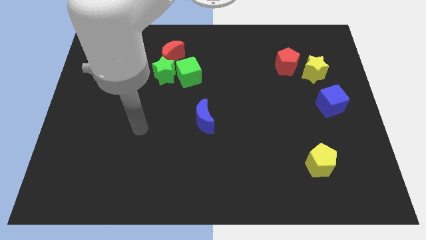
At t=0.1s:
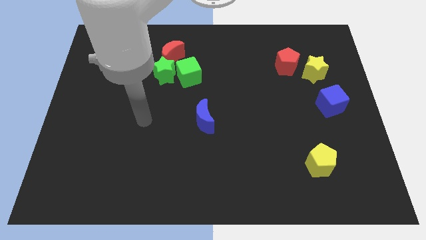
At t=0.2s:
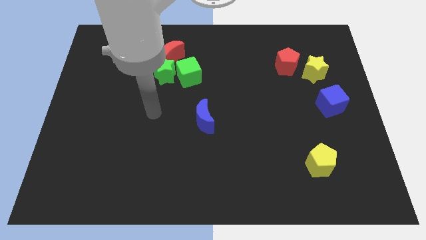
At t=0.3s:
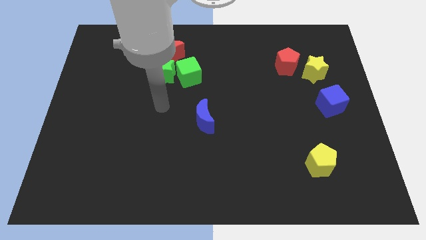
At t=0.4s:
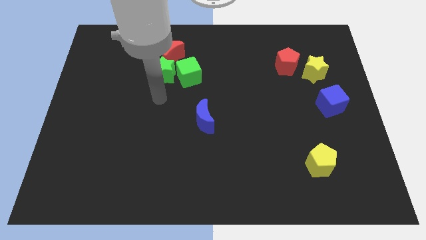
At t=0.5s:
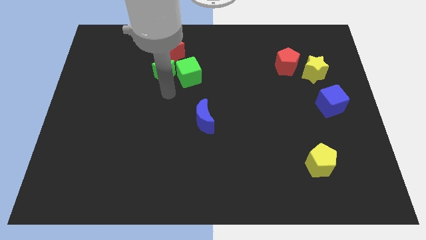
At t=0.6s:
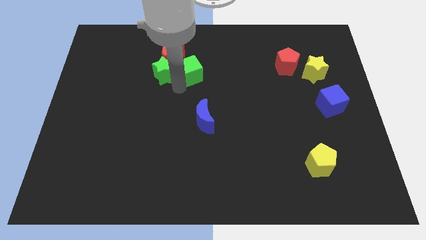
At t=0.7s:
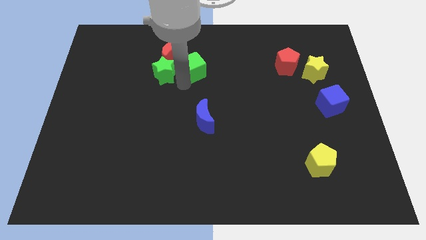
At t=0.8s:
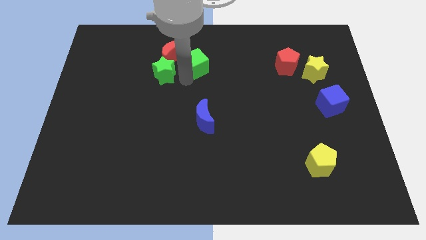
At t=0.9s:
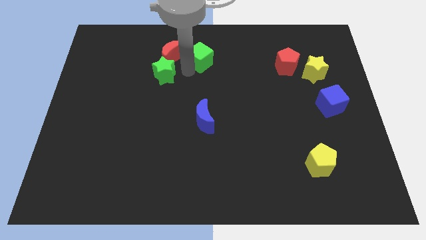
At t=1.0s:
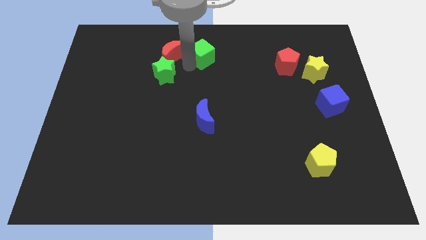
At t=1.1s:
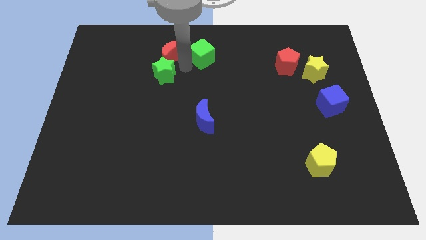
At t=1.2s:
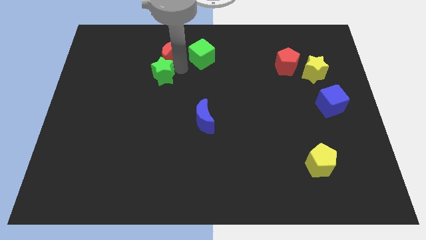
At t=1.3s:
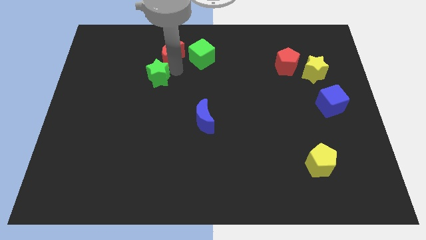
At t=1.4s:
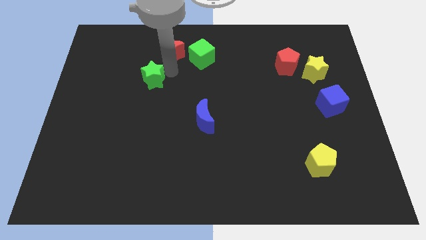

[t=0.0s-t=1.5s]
separate the green star from the green cube and red moon

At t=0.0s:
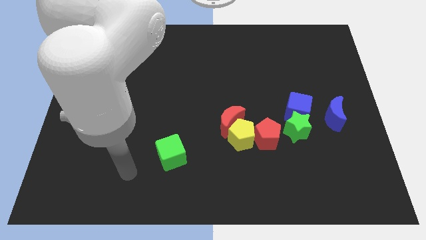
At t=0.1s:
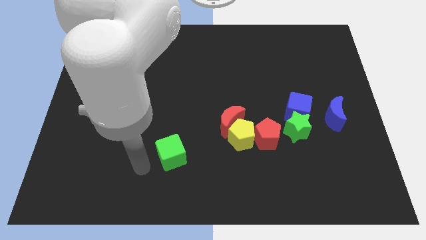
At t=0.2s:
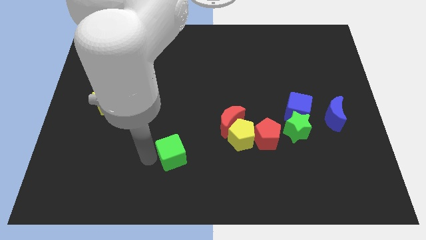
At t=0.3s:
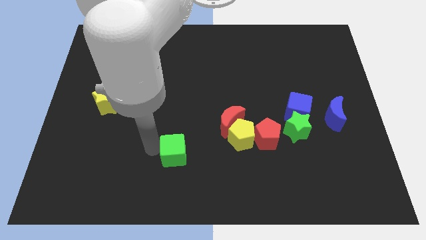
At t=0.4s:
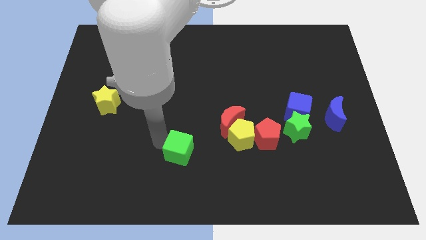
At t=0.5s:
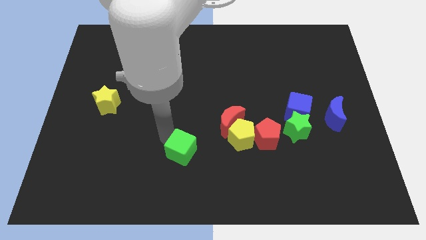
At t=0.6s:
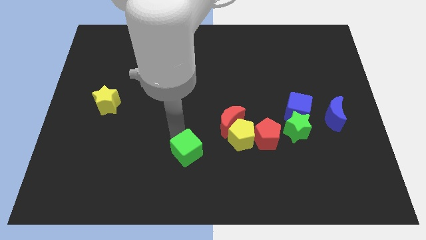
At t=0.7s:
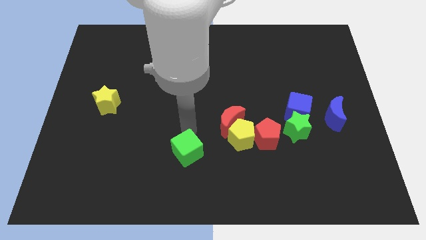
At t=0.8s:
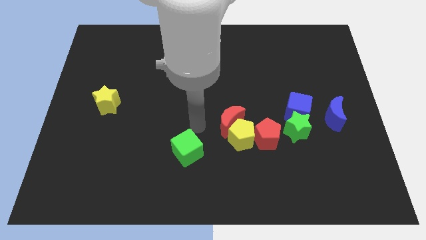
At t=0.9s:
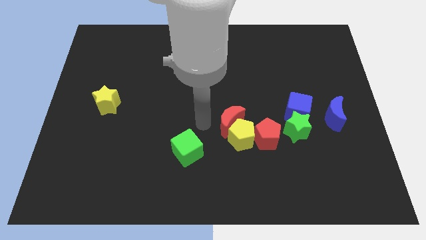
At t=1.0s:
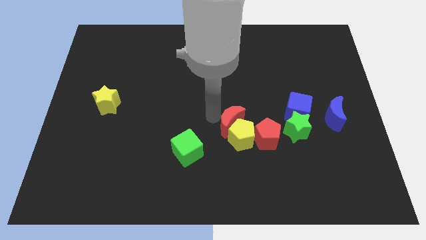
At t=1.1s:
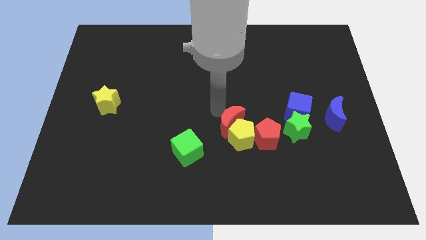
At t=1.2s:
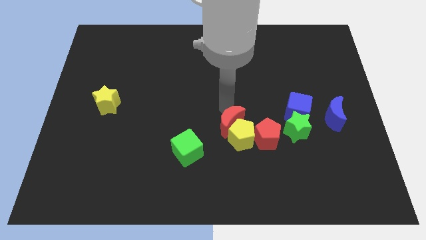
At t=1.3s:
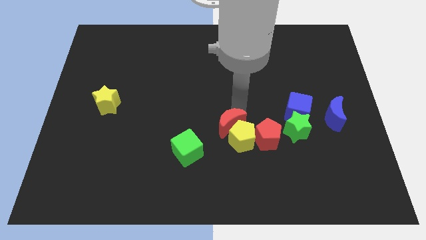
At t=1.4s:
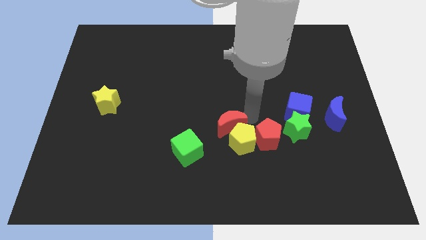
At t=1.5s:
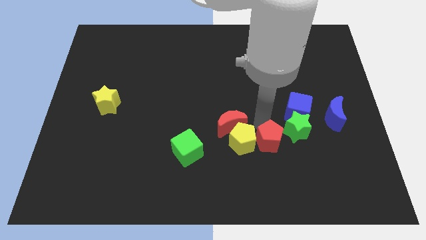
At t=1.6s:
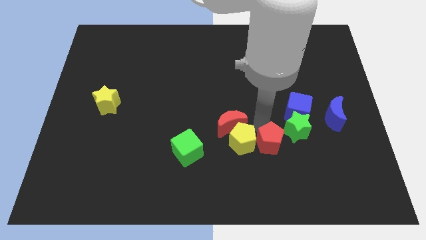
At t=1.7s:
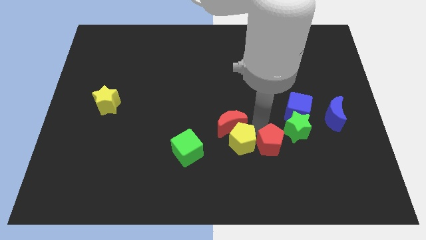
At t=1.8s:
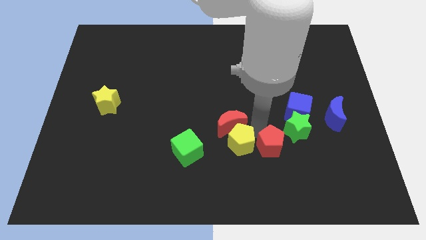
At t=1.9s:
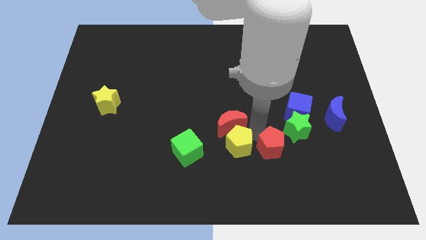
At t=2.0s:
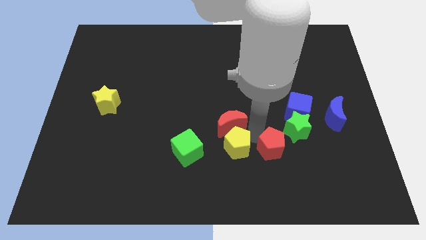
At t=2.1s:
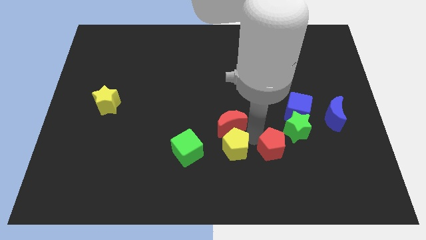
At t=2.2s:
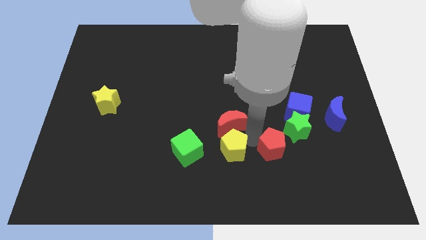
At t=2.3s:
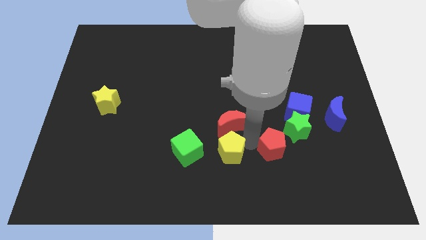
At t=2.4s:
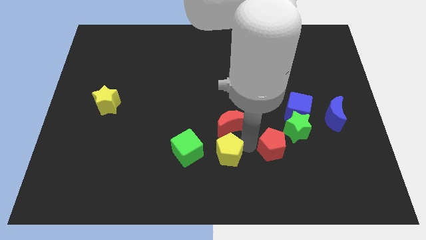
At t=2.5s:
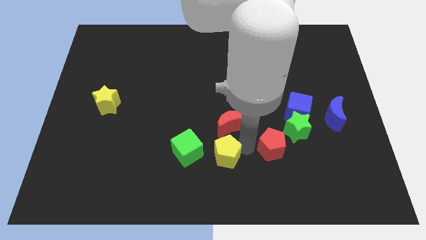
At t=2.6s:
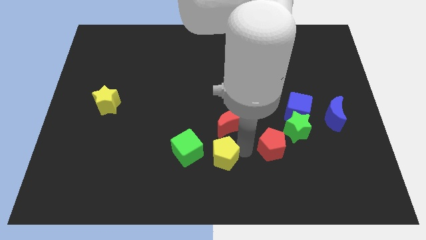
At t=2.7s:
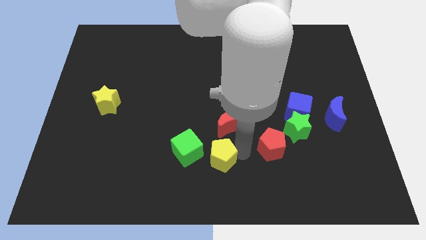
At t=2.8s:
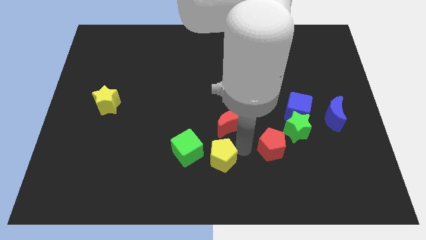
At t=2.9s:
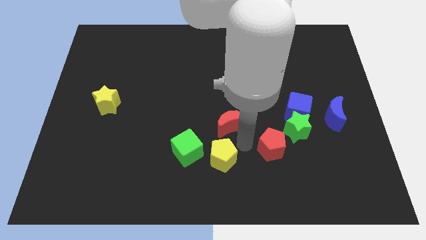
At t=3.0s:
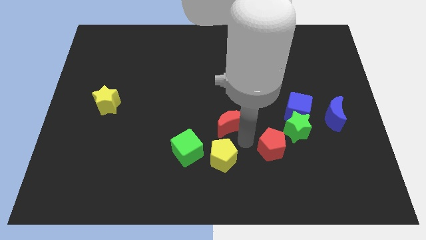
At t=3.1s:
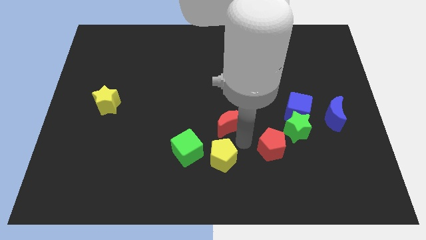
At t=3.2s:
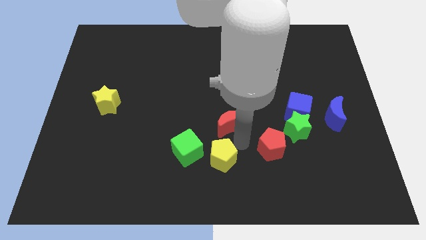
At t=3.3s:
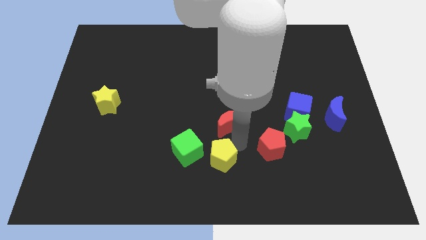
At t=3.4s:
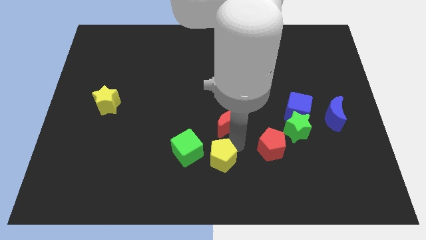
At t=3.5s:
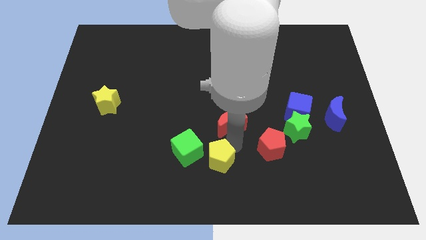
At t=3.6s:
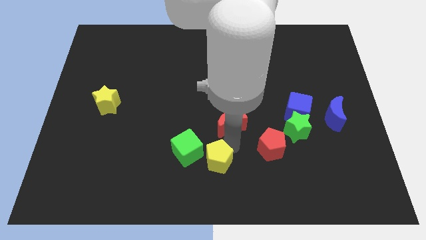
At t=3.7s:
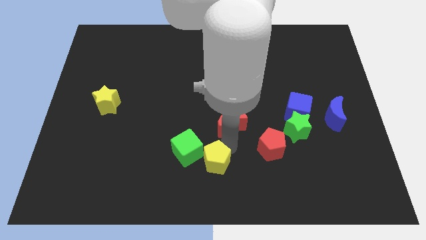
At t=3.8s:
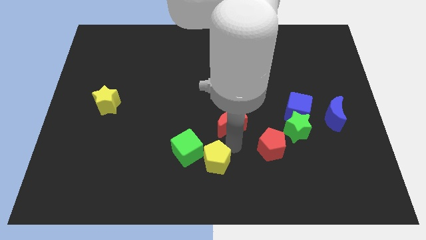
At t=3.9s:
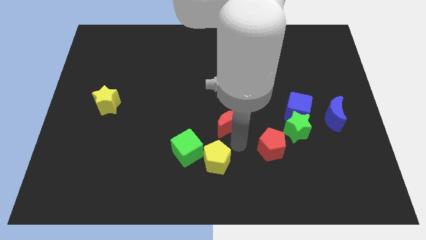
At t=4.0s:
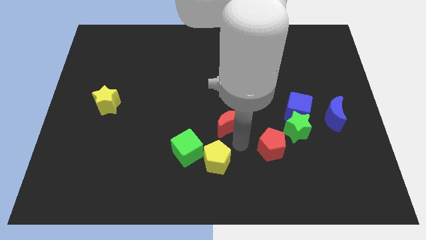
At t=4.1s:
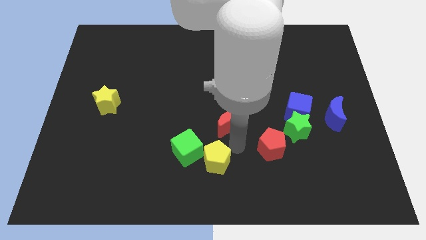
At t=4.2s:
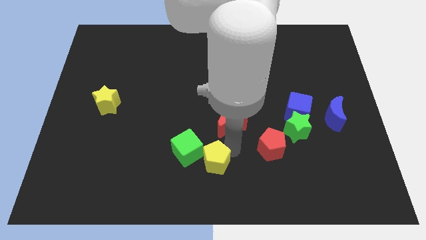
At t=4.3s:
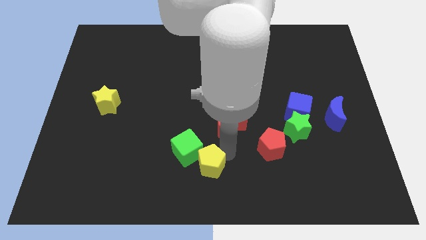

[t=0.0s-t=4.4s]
separate the yellow pentagon from the red moon and red pentagon

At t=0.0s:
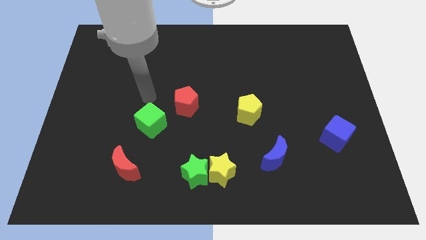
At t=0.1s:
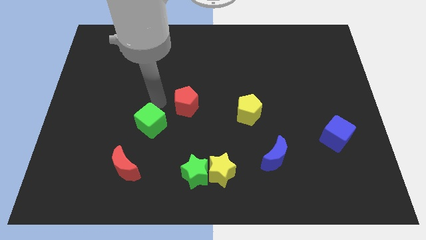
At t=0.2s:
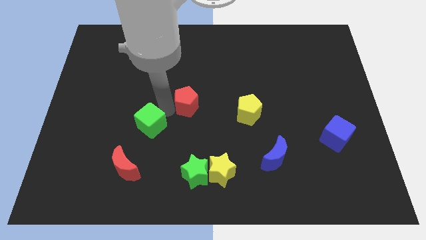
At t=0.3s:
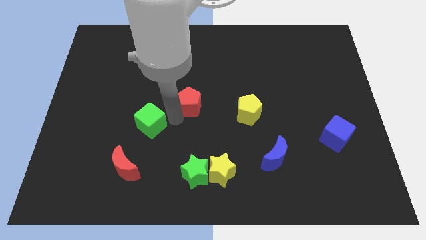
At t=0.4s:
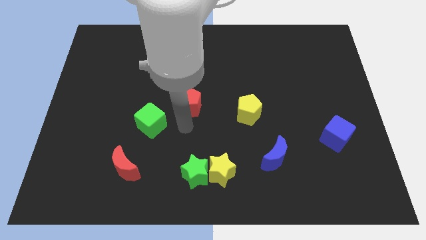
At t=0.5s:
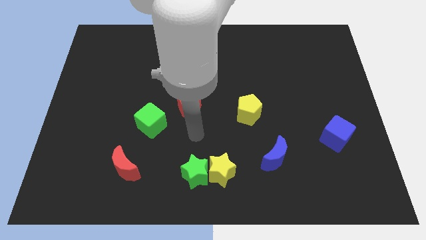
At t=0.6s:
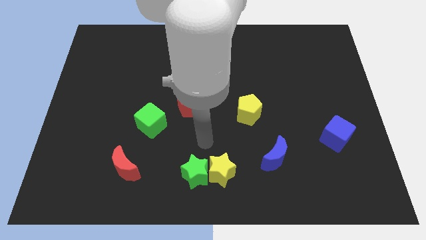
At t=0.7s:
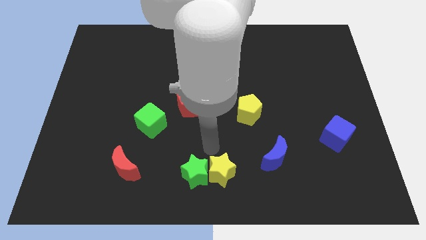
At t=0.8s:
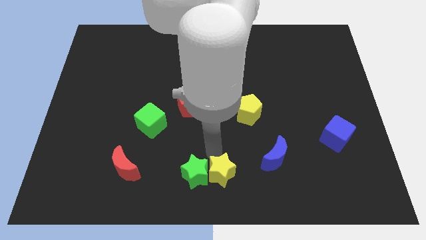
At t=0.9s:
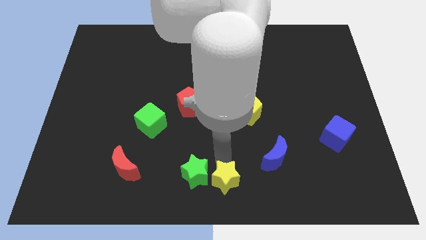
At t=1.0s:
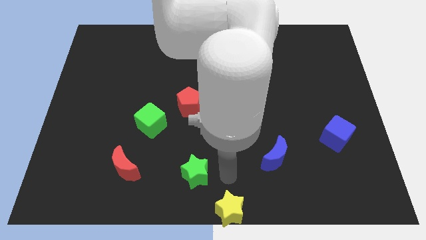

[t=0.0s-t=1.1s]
separate the green star from the yellow star

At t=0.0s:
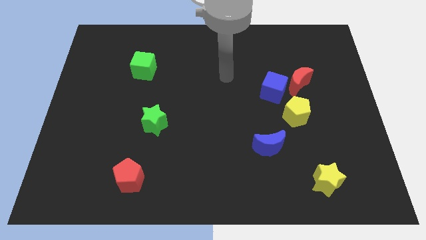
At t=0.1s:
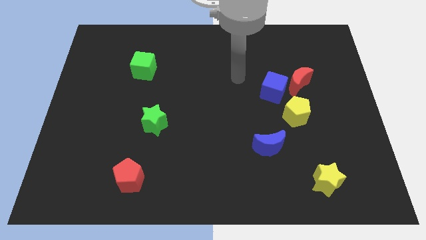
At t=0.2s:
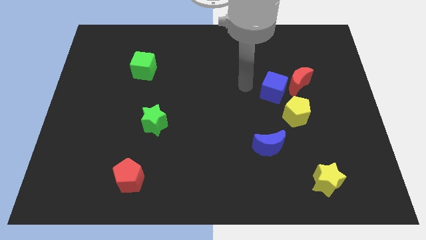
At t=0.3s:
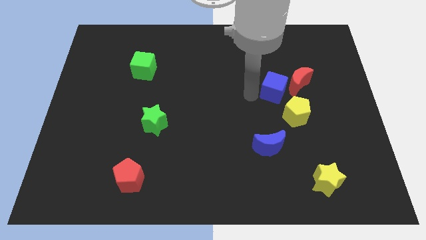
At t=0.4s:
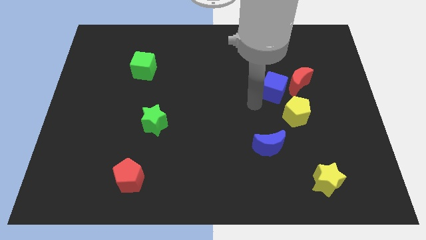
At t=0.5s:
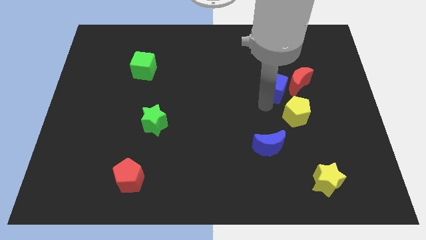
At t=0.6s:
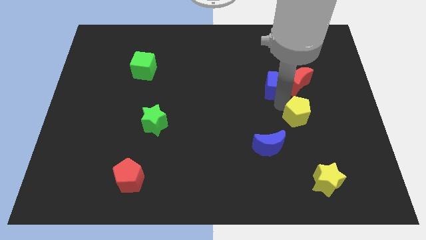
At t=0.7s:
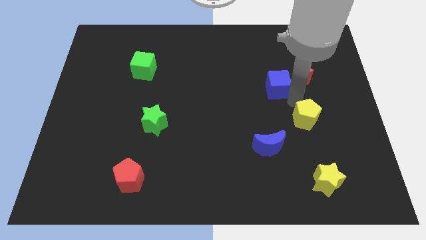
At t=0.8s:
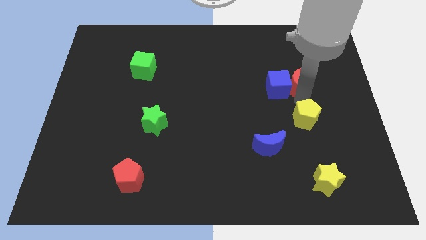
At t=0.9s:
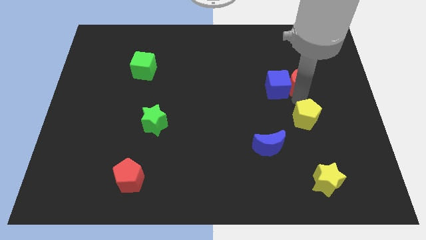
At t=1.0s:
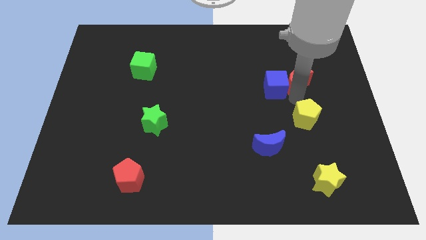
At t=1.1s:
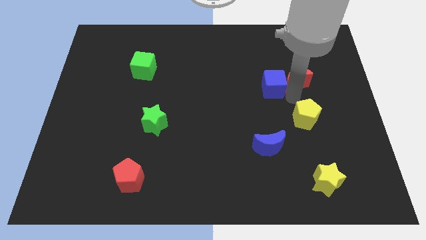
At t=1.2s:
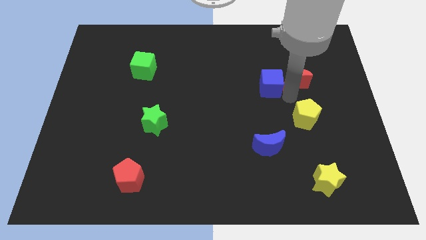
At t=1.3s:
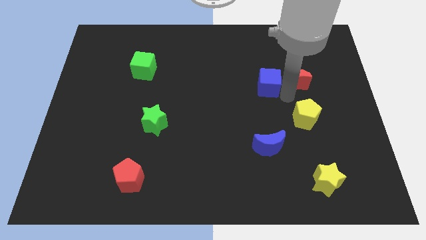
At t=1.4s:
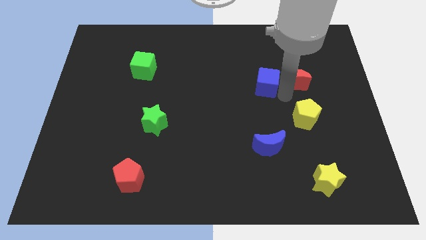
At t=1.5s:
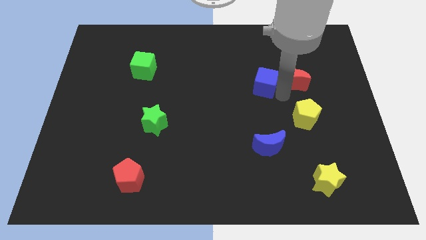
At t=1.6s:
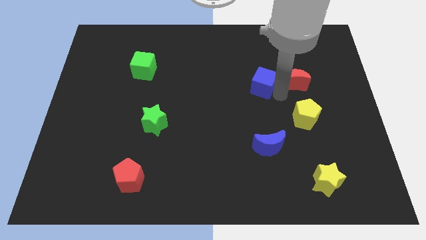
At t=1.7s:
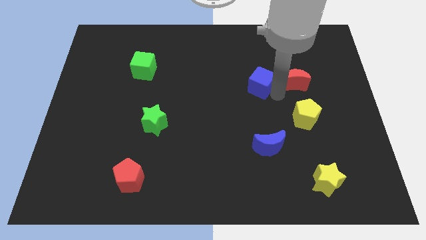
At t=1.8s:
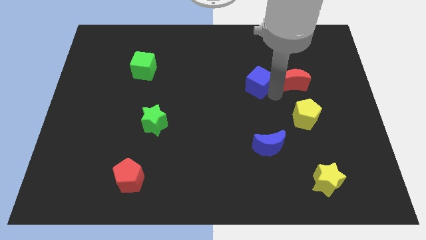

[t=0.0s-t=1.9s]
move the blue cube away from the red moon and yellow pentagon

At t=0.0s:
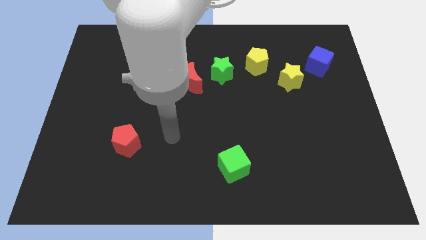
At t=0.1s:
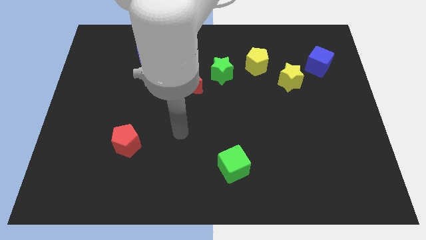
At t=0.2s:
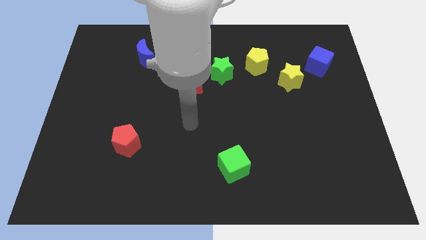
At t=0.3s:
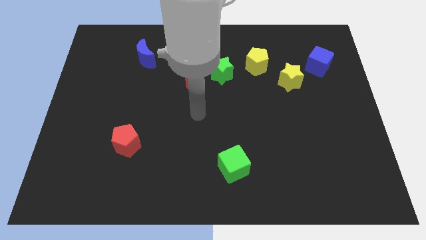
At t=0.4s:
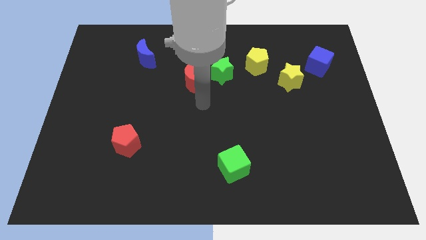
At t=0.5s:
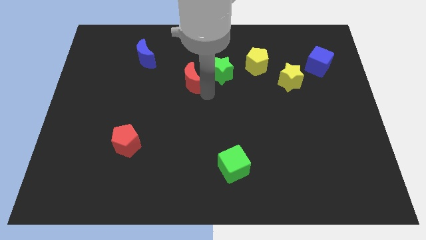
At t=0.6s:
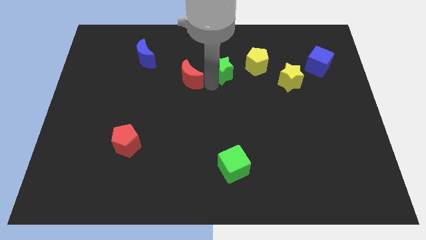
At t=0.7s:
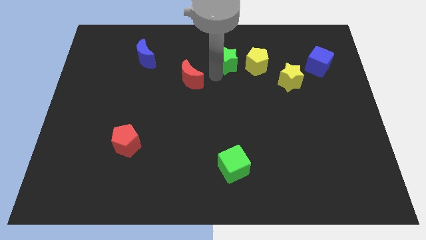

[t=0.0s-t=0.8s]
separate the red moon from the green star
